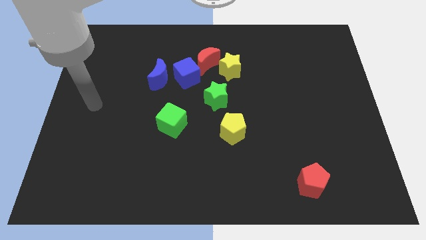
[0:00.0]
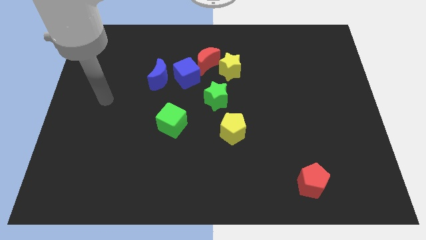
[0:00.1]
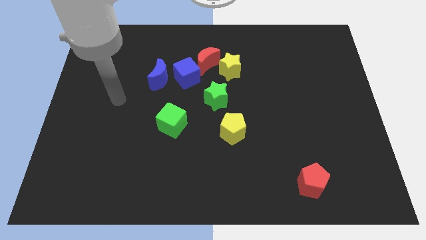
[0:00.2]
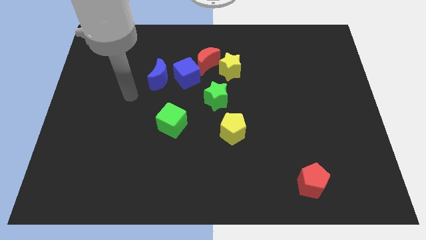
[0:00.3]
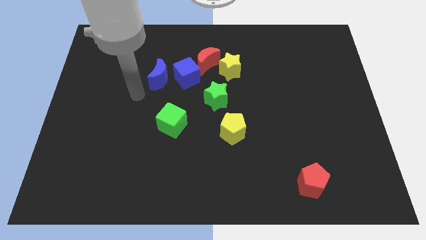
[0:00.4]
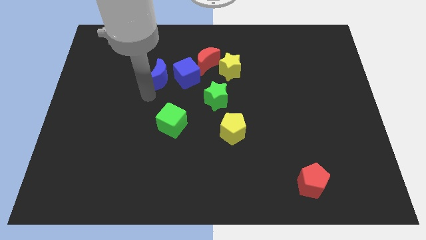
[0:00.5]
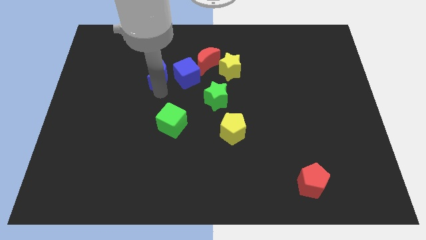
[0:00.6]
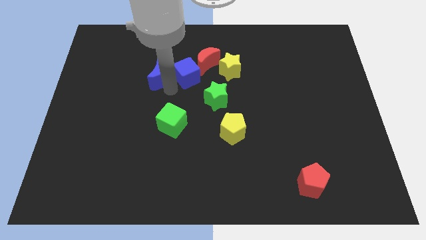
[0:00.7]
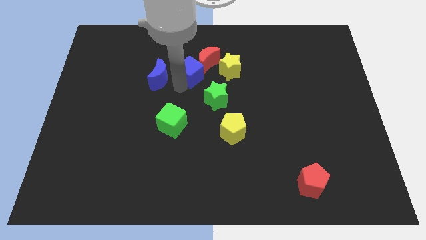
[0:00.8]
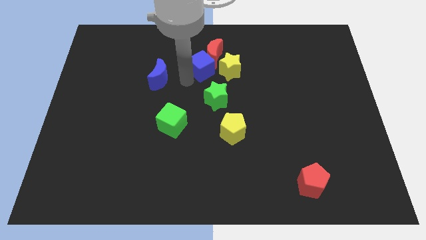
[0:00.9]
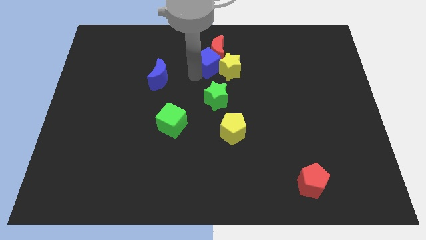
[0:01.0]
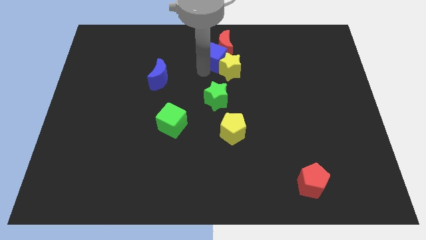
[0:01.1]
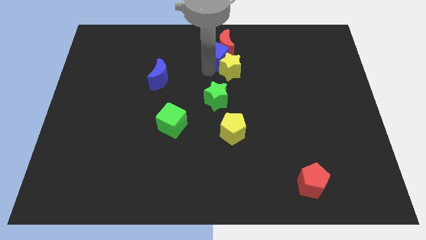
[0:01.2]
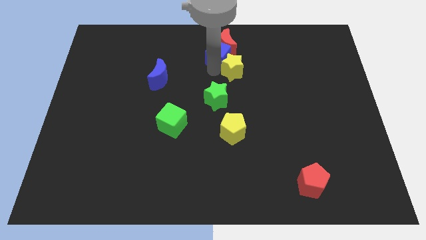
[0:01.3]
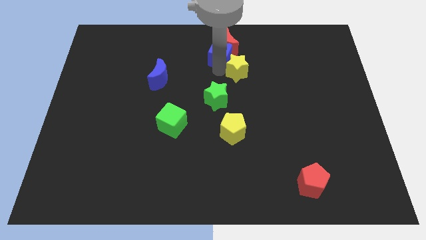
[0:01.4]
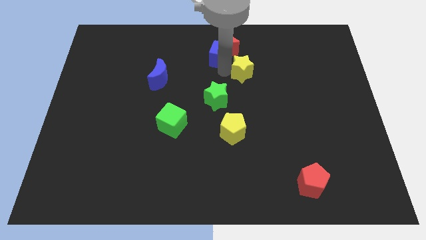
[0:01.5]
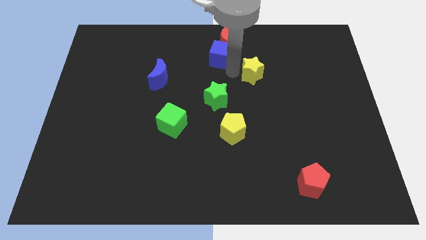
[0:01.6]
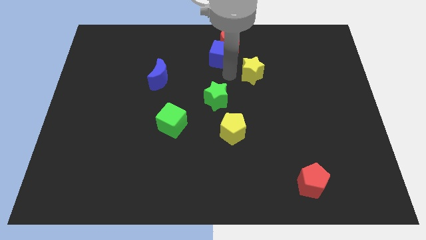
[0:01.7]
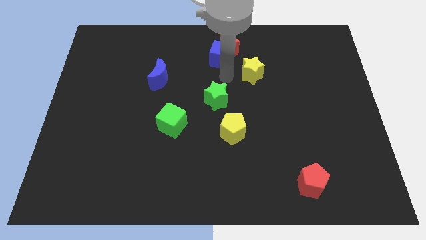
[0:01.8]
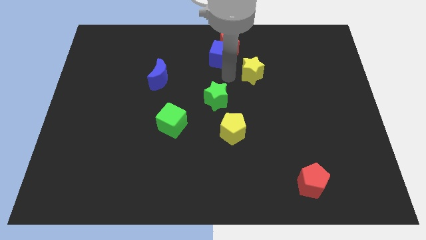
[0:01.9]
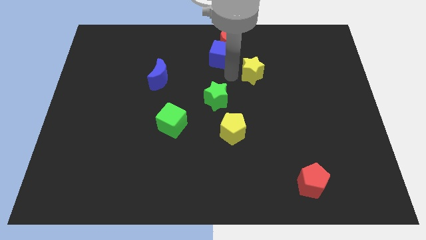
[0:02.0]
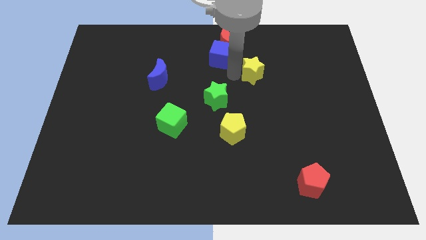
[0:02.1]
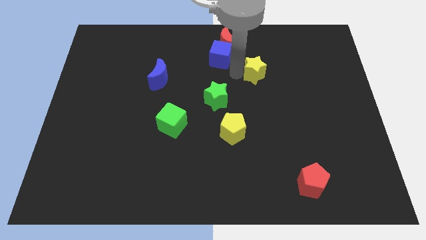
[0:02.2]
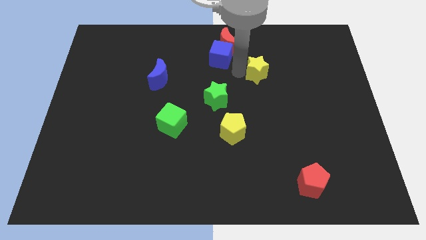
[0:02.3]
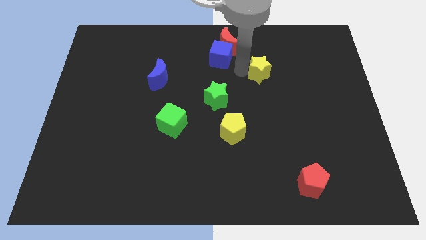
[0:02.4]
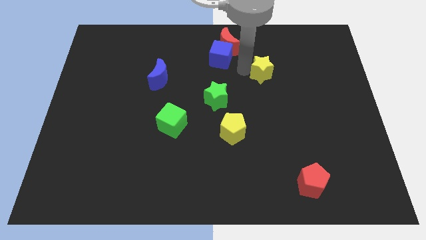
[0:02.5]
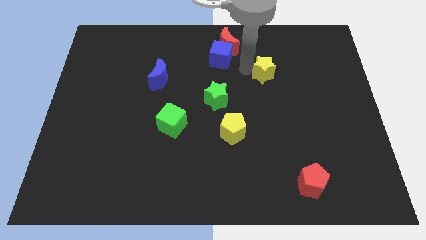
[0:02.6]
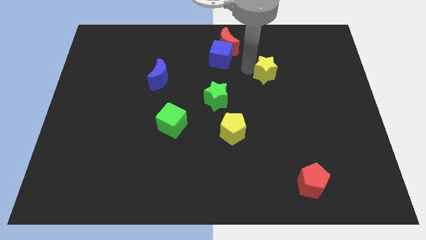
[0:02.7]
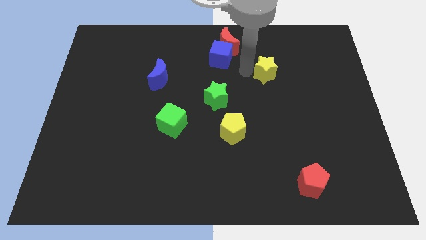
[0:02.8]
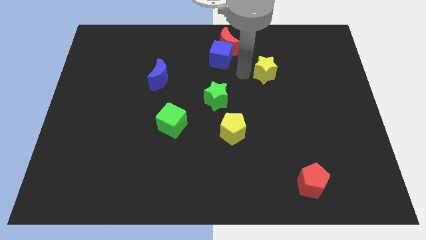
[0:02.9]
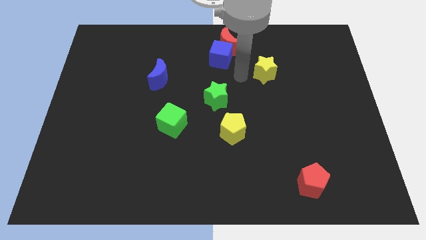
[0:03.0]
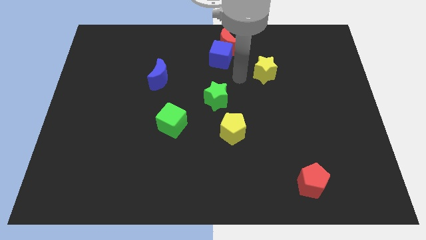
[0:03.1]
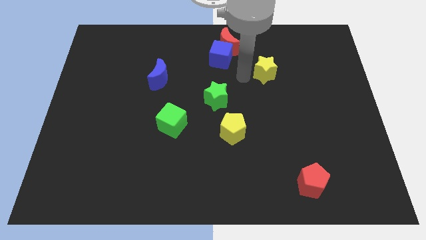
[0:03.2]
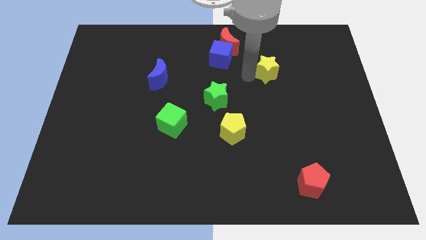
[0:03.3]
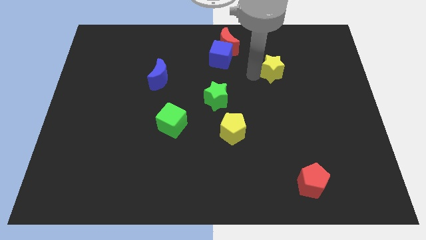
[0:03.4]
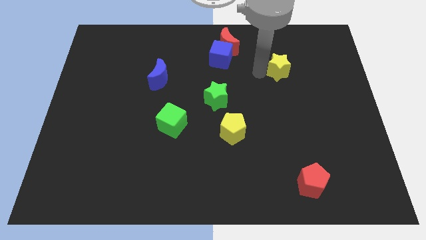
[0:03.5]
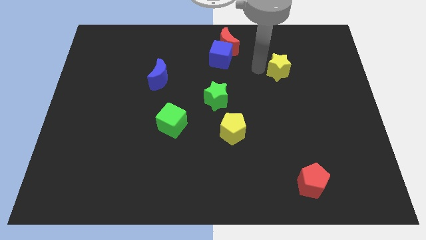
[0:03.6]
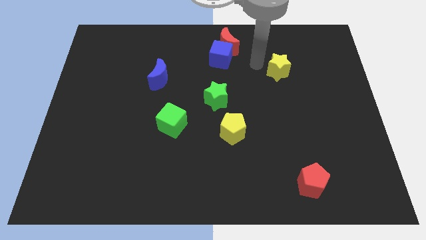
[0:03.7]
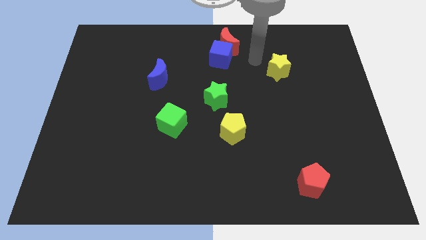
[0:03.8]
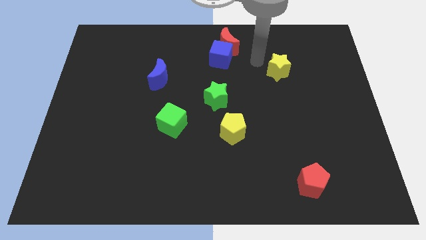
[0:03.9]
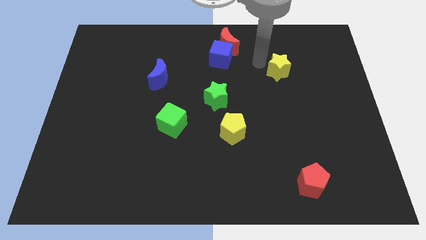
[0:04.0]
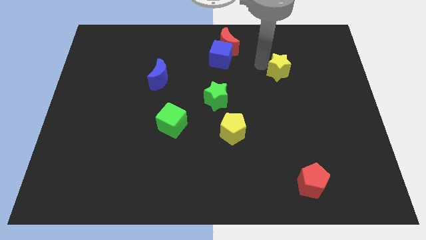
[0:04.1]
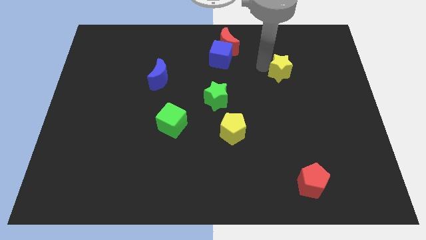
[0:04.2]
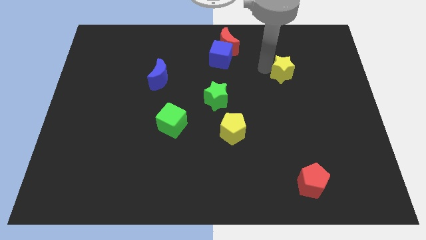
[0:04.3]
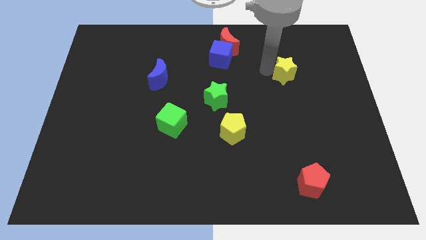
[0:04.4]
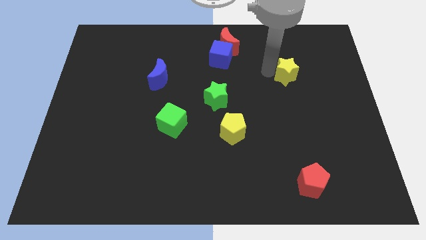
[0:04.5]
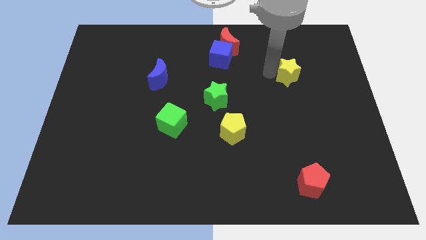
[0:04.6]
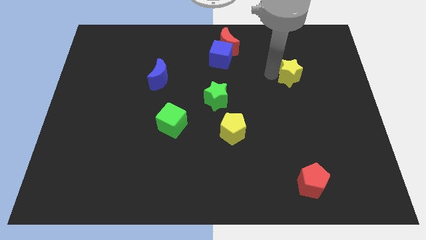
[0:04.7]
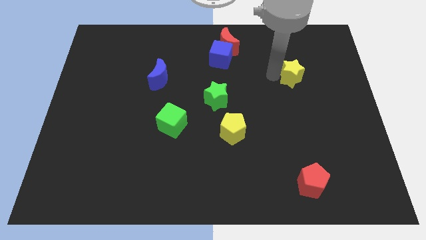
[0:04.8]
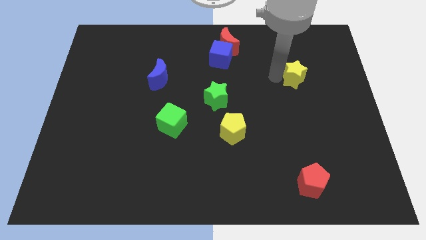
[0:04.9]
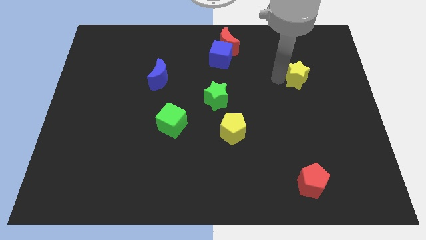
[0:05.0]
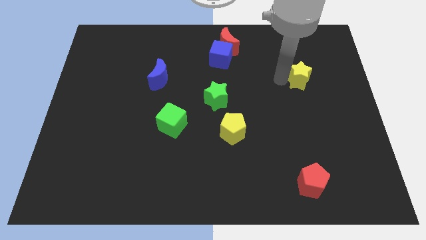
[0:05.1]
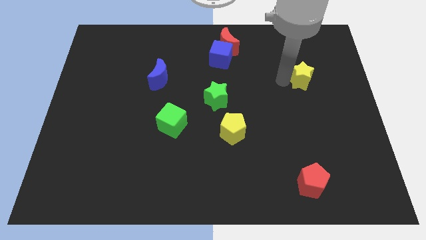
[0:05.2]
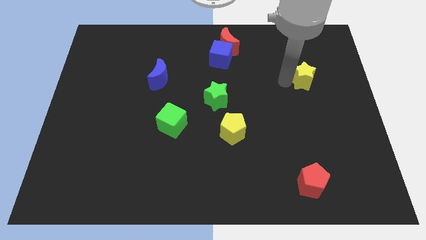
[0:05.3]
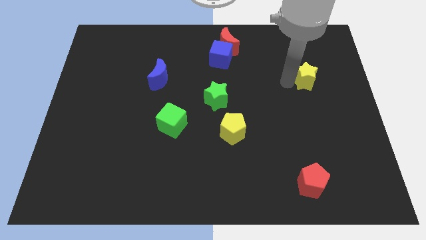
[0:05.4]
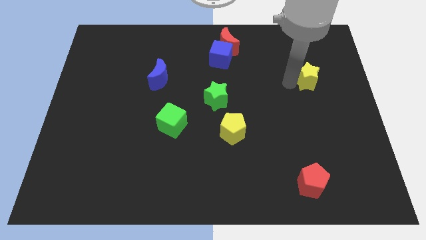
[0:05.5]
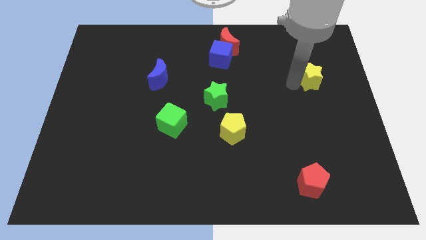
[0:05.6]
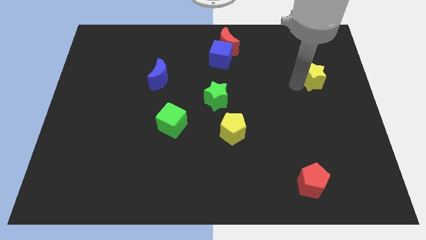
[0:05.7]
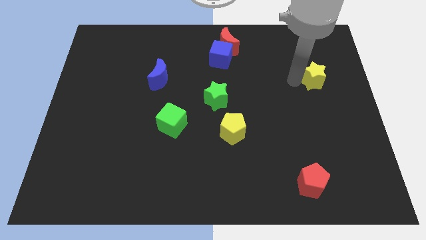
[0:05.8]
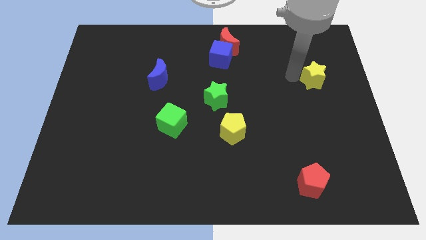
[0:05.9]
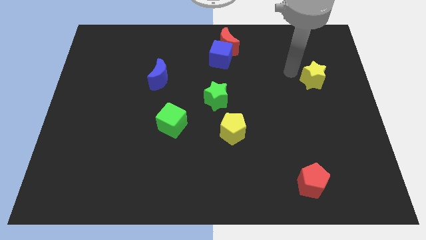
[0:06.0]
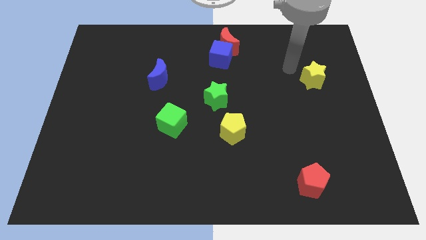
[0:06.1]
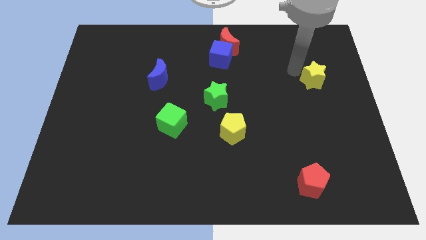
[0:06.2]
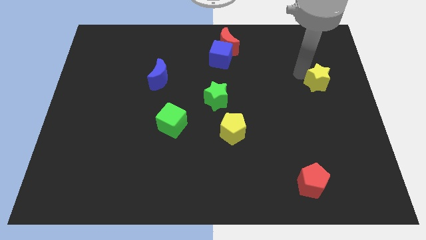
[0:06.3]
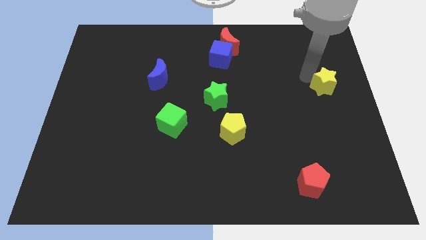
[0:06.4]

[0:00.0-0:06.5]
slide the yellow star to the center right
